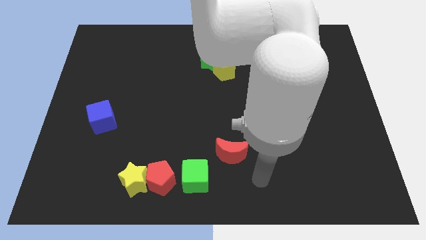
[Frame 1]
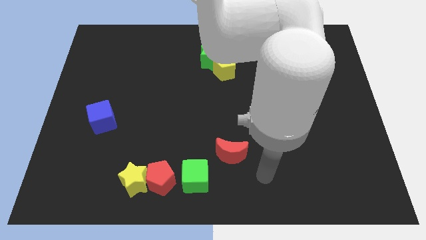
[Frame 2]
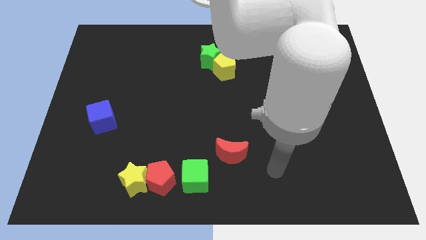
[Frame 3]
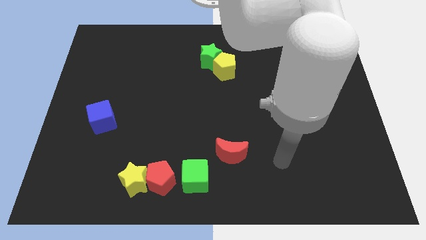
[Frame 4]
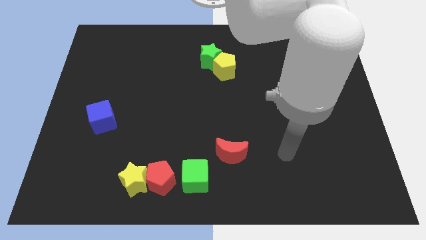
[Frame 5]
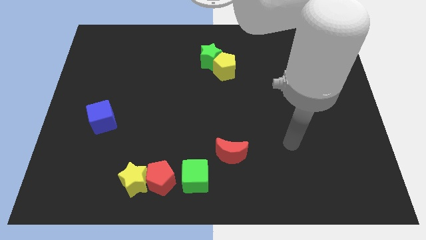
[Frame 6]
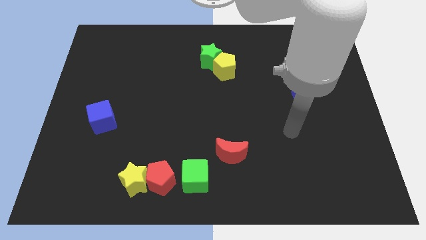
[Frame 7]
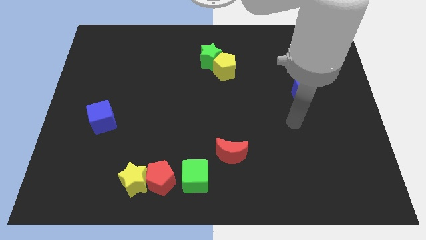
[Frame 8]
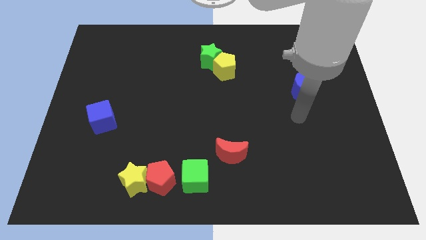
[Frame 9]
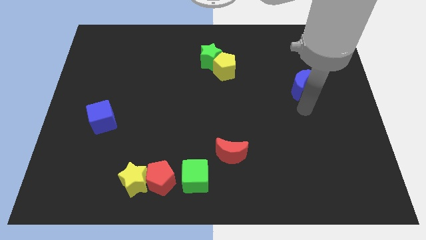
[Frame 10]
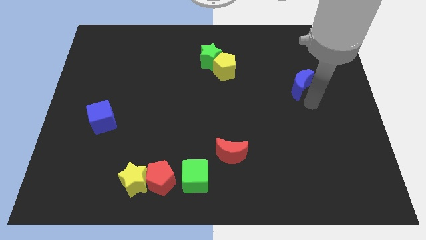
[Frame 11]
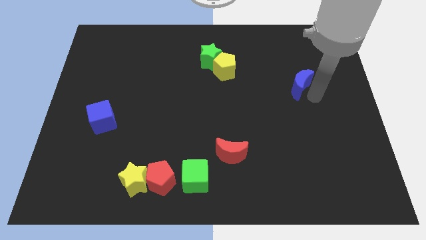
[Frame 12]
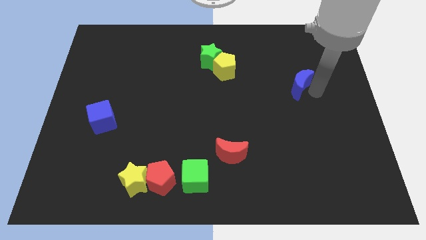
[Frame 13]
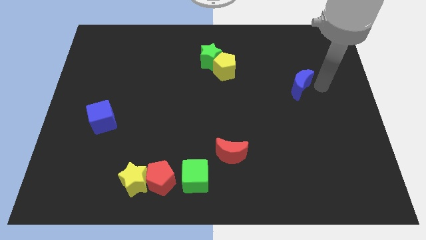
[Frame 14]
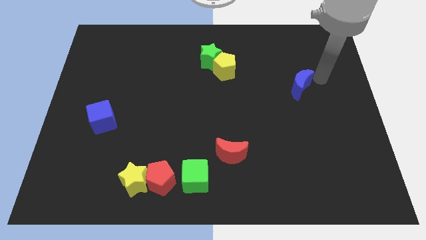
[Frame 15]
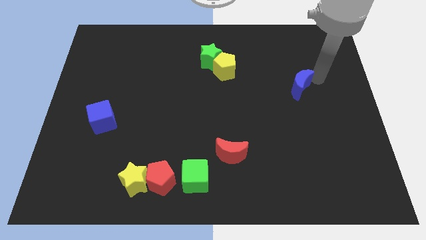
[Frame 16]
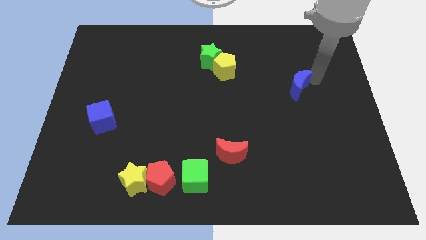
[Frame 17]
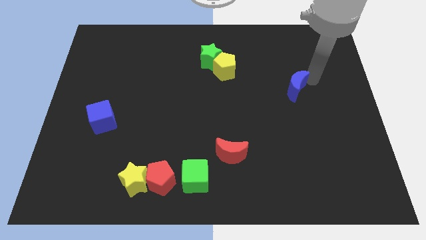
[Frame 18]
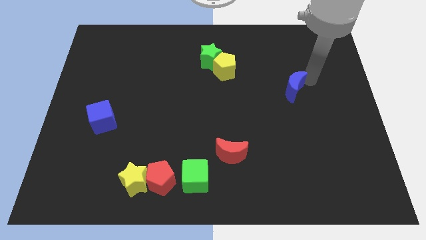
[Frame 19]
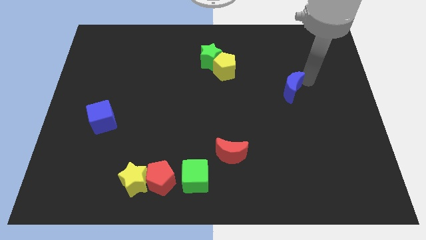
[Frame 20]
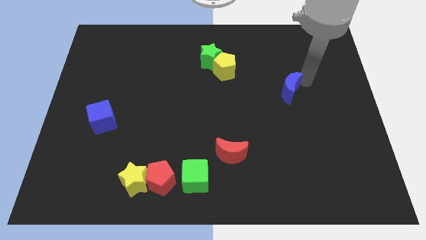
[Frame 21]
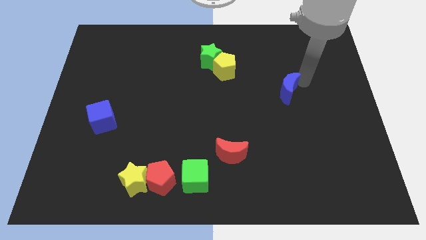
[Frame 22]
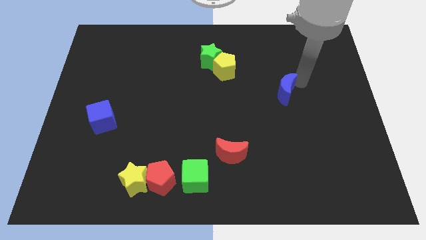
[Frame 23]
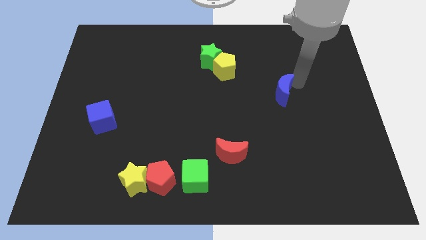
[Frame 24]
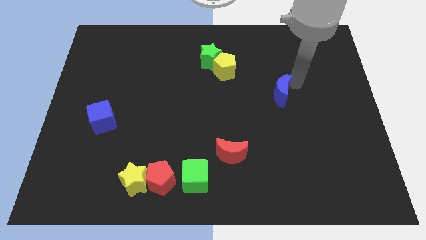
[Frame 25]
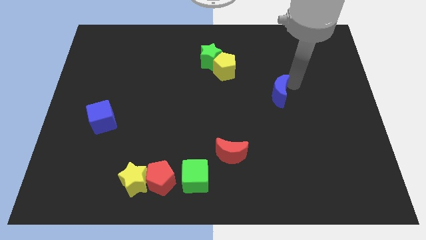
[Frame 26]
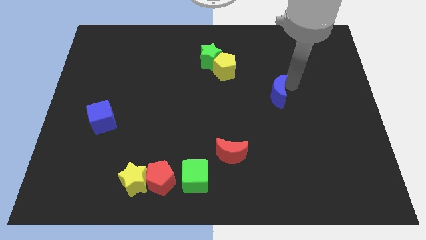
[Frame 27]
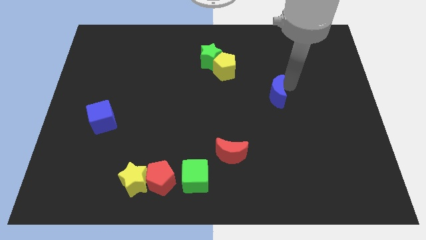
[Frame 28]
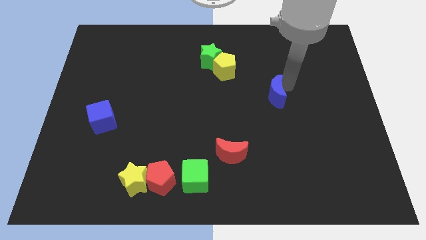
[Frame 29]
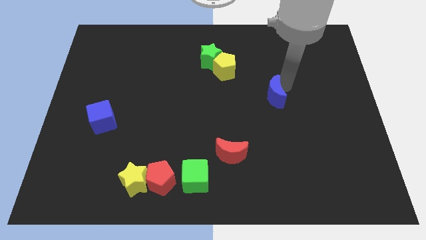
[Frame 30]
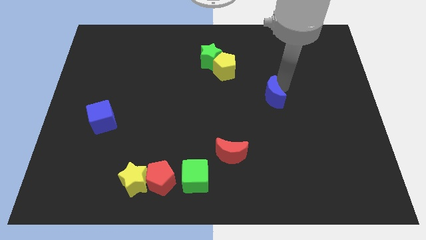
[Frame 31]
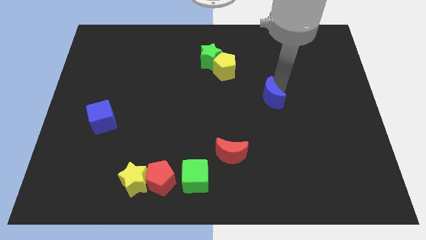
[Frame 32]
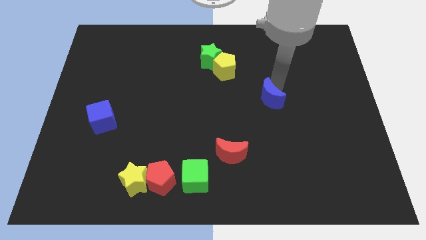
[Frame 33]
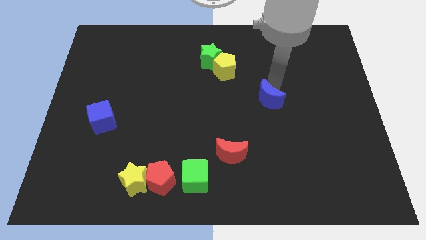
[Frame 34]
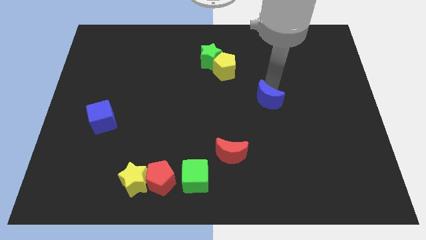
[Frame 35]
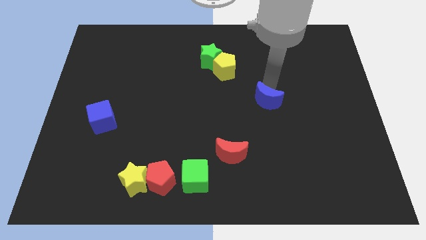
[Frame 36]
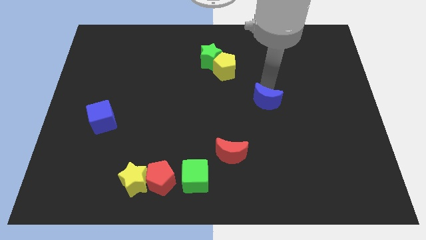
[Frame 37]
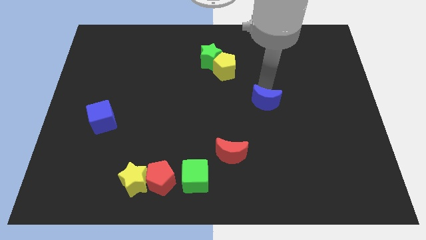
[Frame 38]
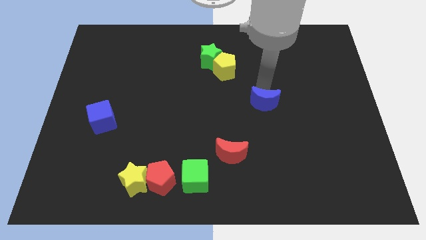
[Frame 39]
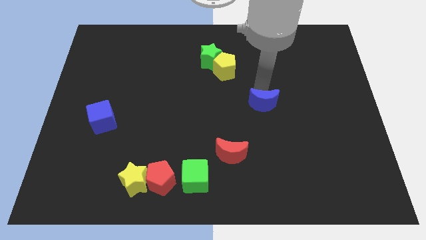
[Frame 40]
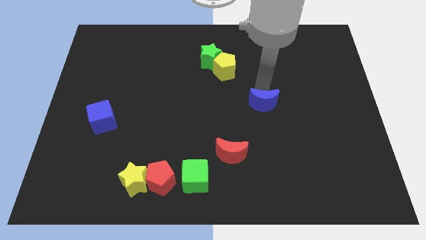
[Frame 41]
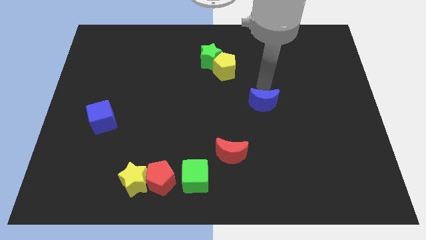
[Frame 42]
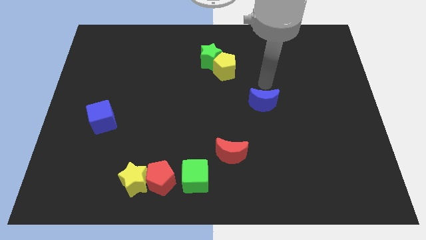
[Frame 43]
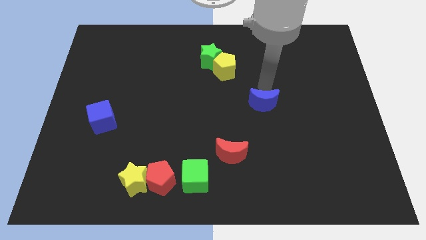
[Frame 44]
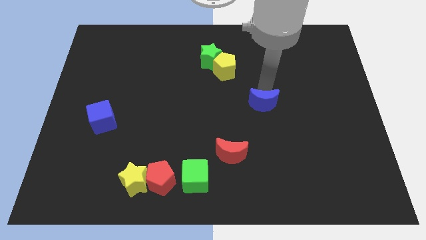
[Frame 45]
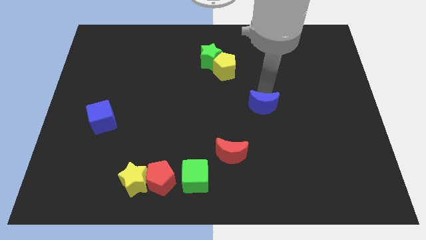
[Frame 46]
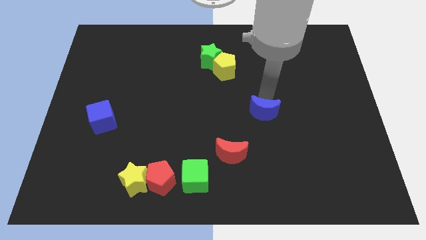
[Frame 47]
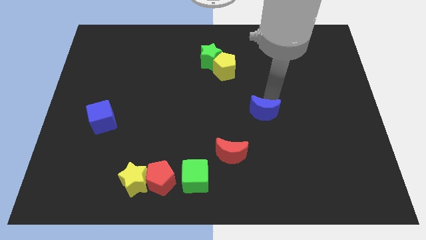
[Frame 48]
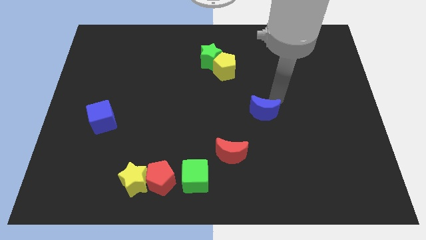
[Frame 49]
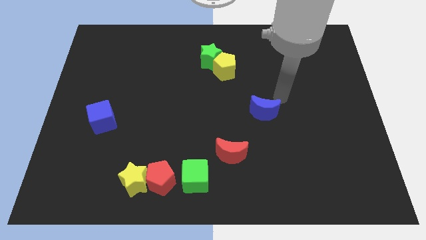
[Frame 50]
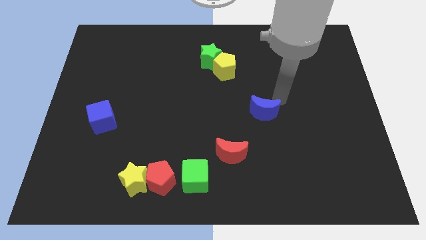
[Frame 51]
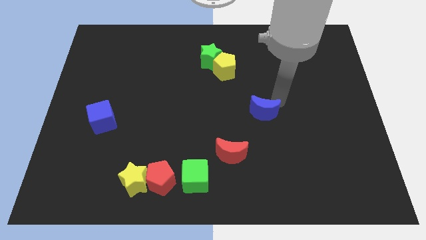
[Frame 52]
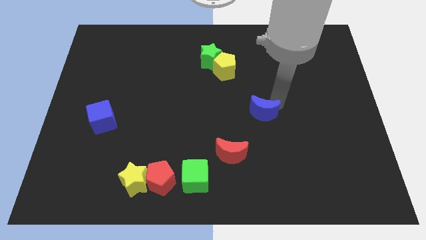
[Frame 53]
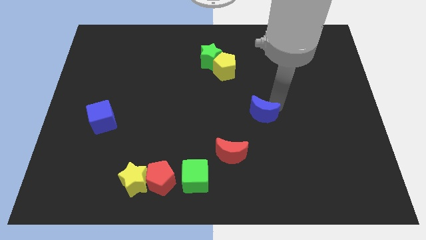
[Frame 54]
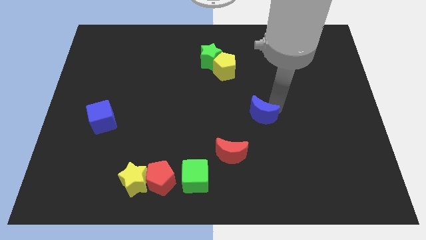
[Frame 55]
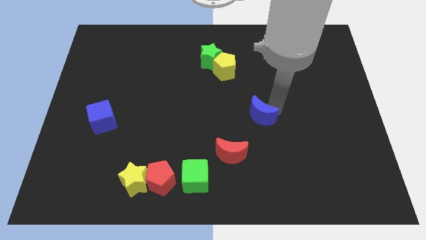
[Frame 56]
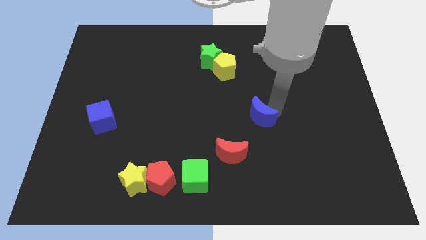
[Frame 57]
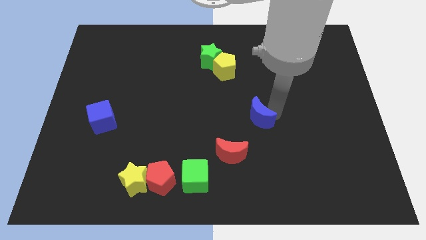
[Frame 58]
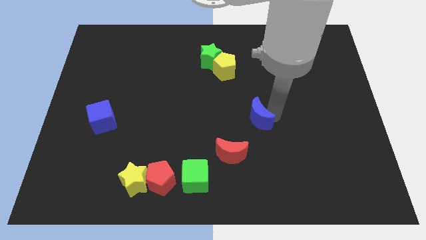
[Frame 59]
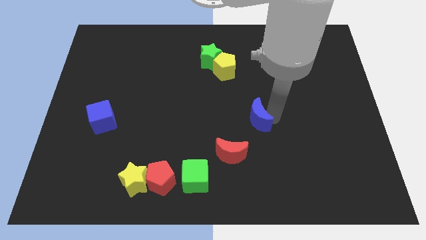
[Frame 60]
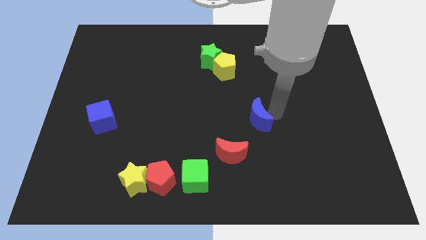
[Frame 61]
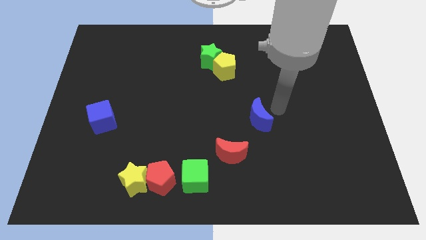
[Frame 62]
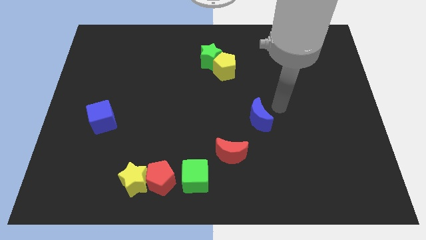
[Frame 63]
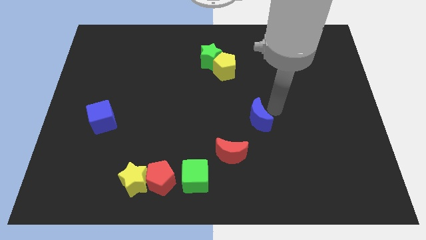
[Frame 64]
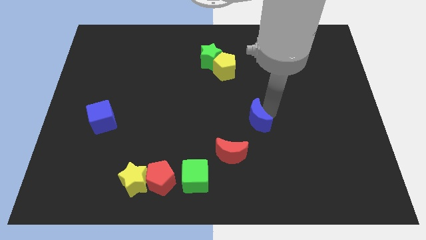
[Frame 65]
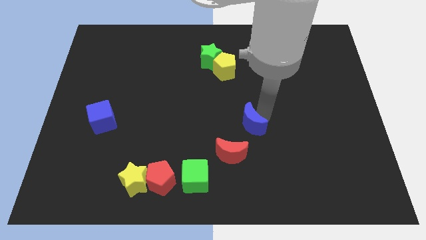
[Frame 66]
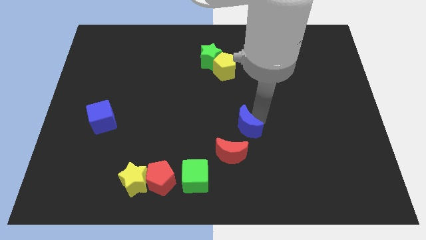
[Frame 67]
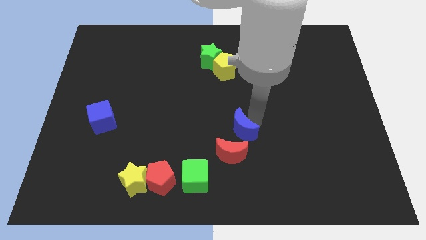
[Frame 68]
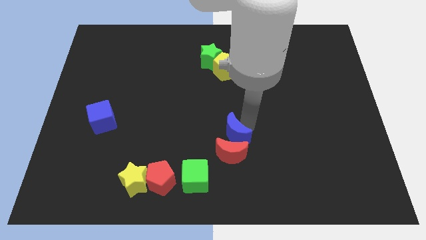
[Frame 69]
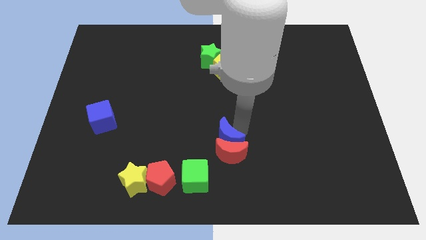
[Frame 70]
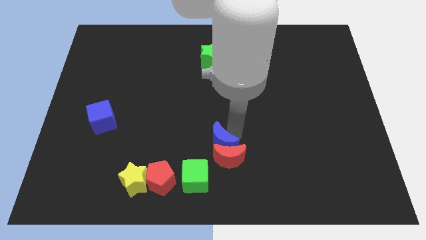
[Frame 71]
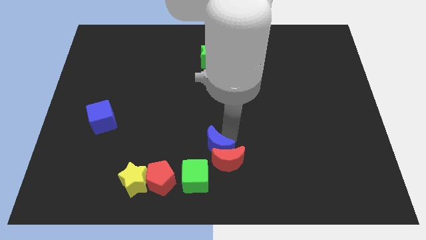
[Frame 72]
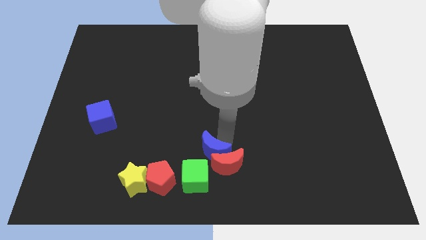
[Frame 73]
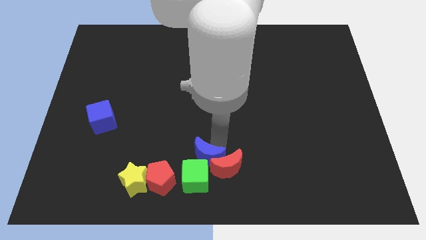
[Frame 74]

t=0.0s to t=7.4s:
slide the blue moon next to the green cube

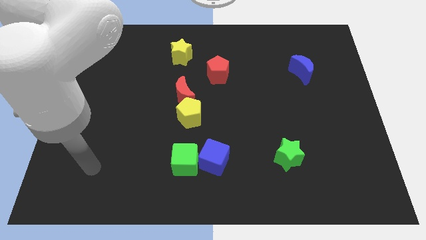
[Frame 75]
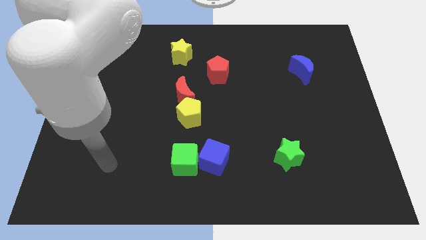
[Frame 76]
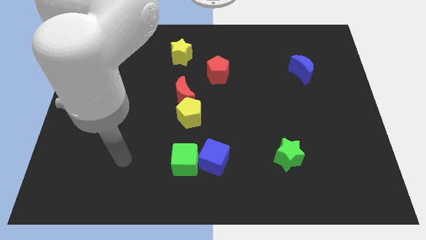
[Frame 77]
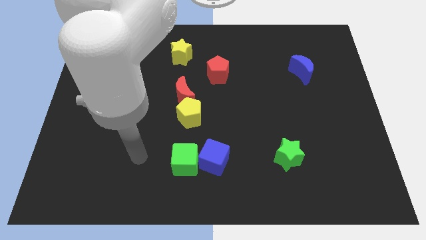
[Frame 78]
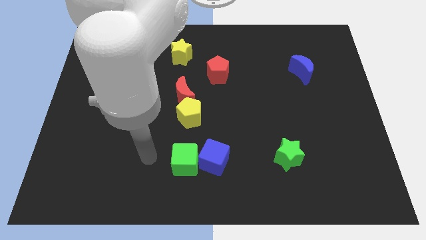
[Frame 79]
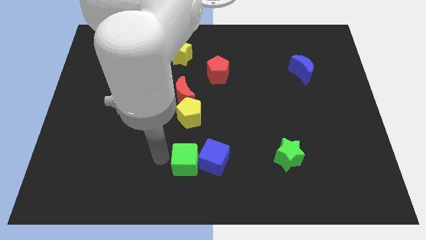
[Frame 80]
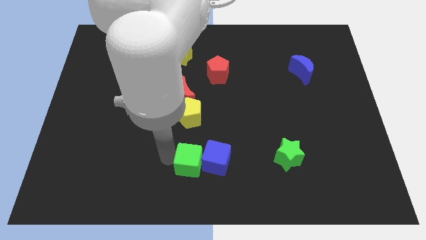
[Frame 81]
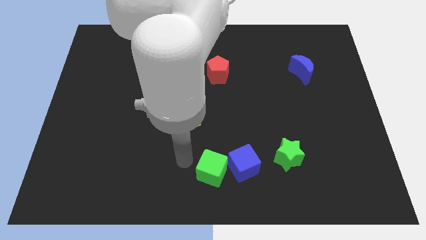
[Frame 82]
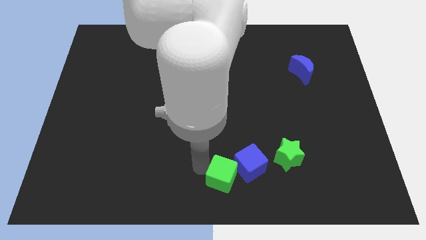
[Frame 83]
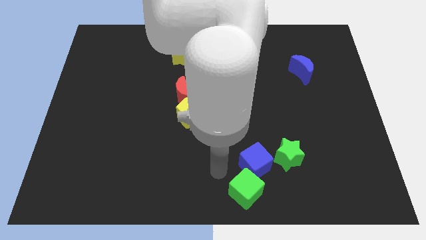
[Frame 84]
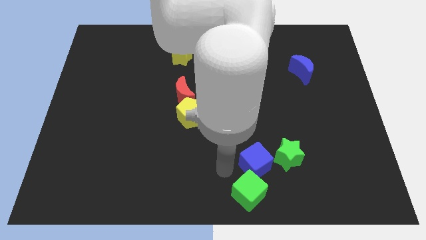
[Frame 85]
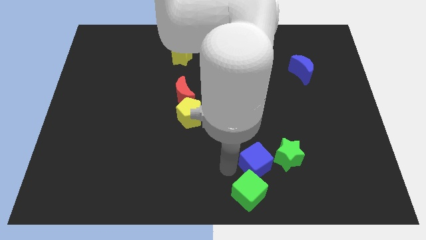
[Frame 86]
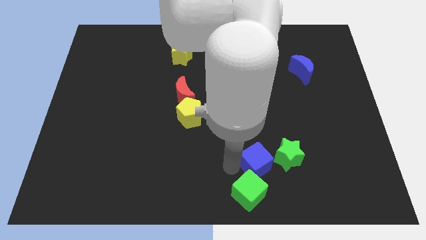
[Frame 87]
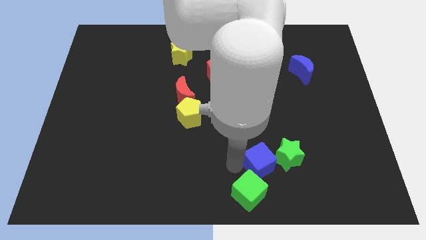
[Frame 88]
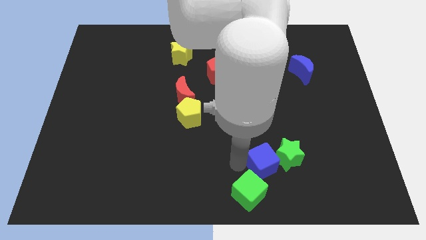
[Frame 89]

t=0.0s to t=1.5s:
push the blue cube to the green star
